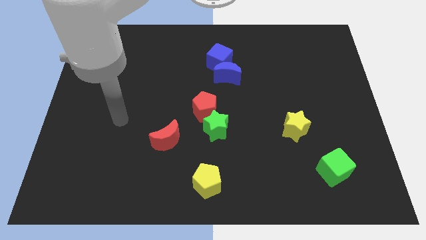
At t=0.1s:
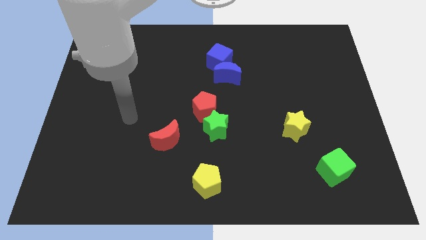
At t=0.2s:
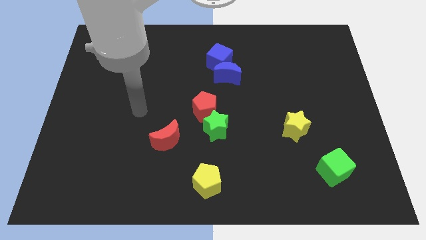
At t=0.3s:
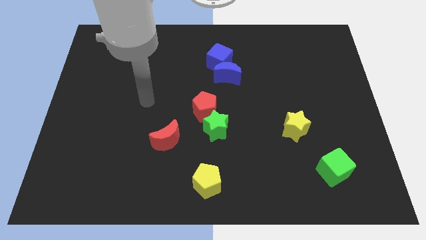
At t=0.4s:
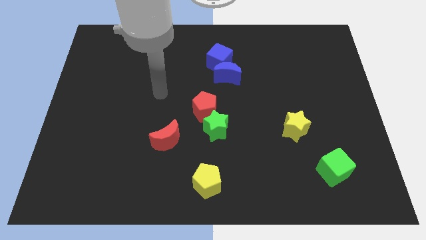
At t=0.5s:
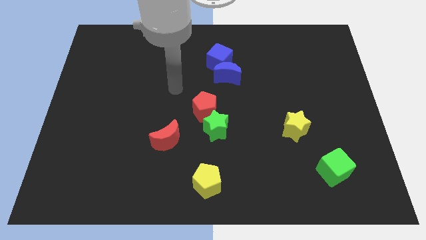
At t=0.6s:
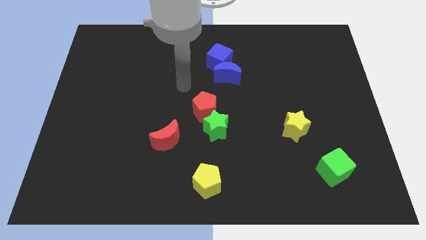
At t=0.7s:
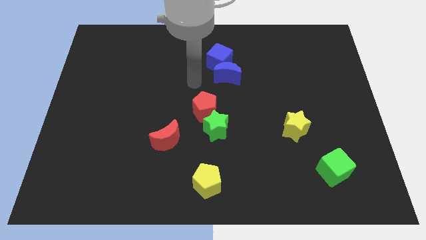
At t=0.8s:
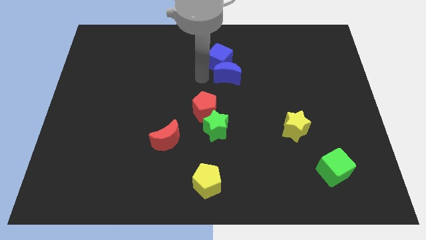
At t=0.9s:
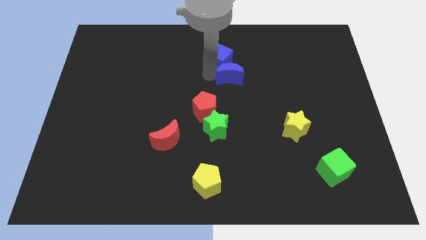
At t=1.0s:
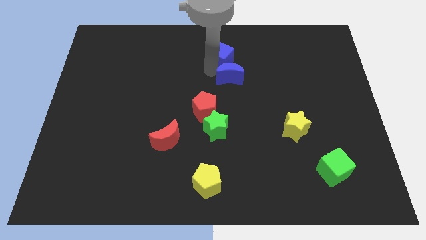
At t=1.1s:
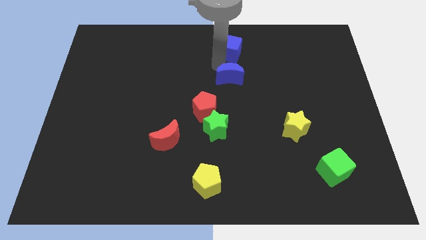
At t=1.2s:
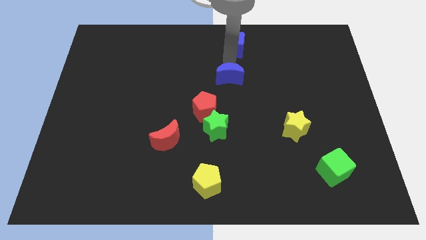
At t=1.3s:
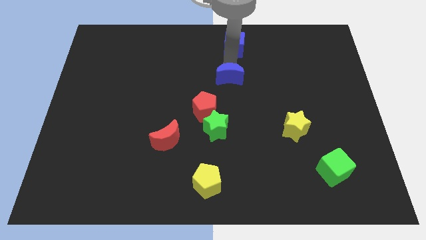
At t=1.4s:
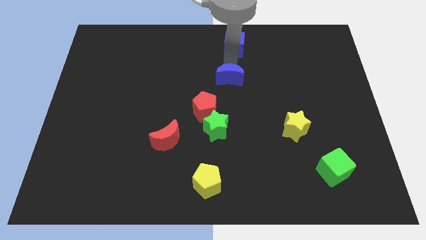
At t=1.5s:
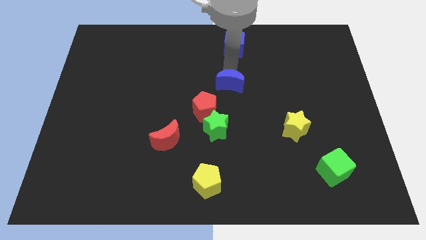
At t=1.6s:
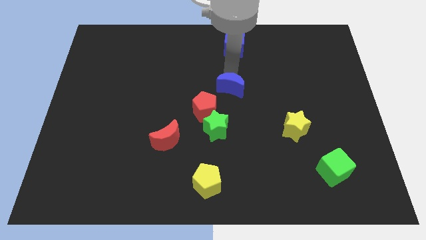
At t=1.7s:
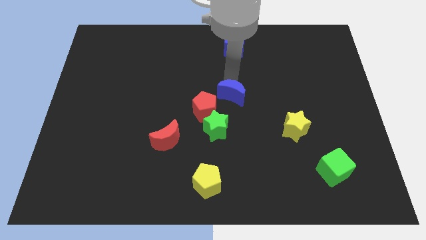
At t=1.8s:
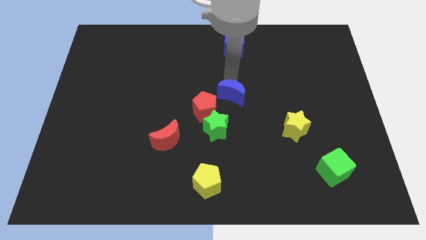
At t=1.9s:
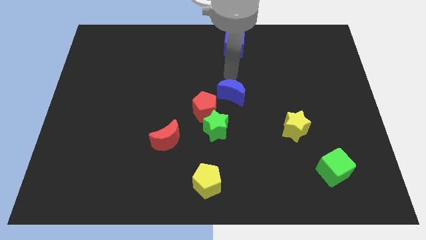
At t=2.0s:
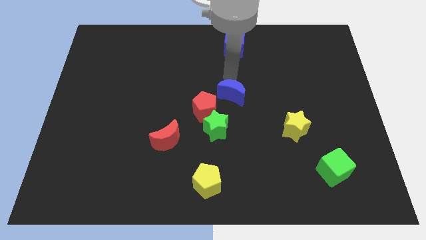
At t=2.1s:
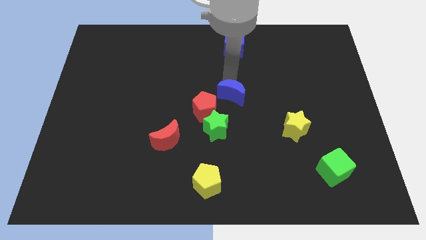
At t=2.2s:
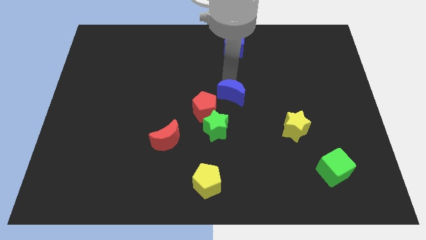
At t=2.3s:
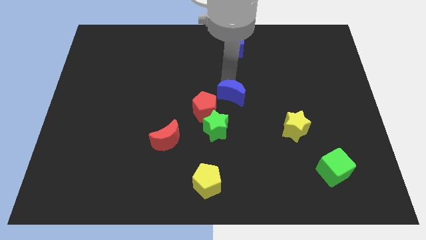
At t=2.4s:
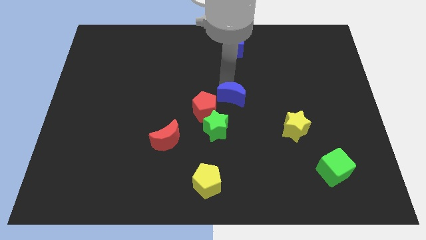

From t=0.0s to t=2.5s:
slightly push the blue moon downwards

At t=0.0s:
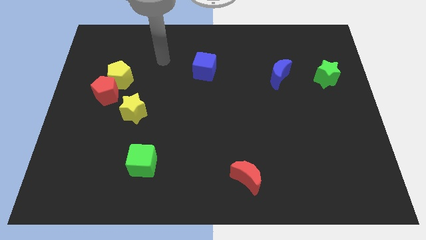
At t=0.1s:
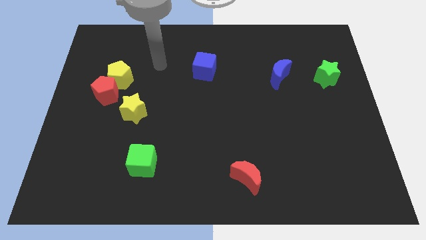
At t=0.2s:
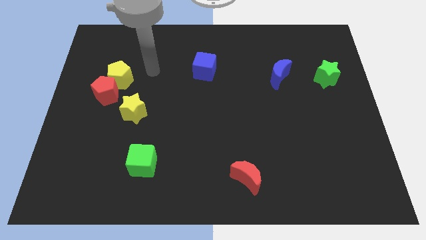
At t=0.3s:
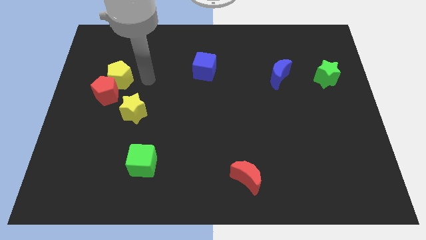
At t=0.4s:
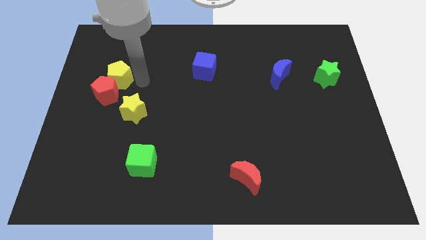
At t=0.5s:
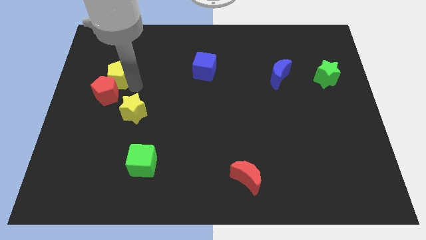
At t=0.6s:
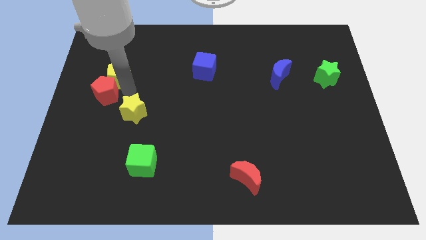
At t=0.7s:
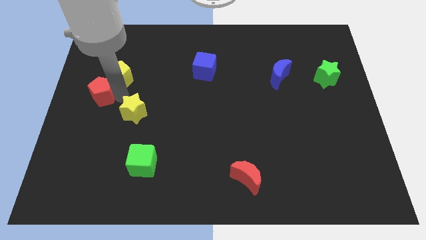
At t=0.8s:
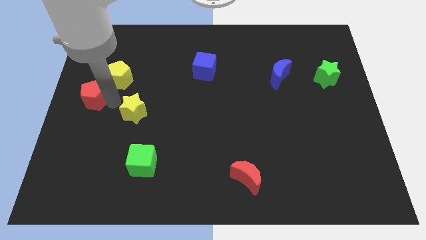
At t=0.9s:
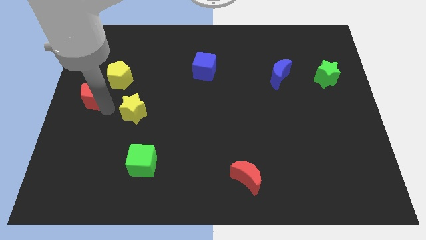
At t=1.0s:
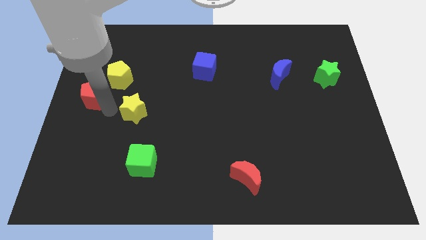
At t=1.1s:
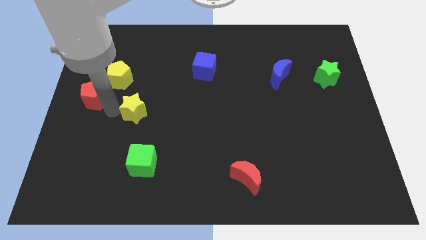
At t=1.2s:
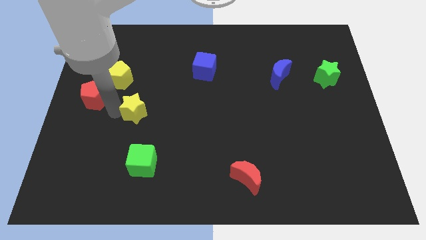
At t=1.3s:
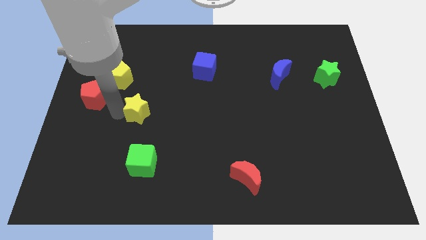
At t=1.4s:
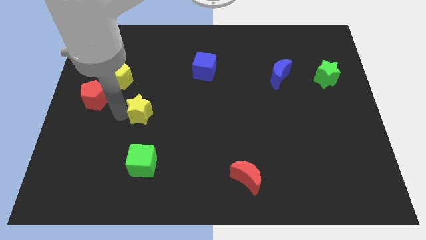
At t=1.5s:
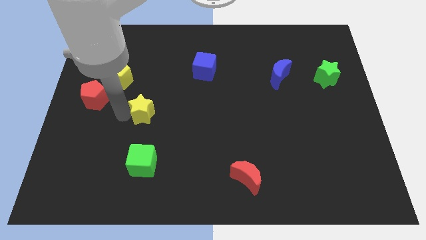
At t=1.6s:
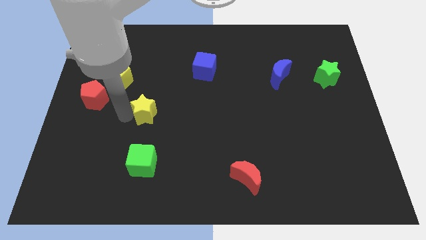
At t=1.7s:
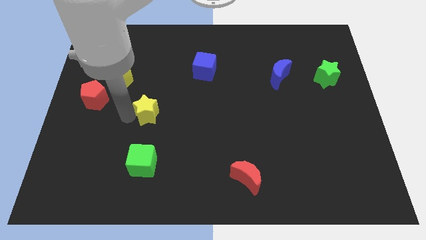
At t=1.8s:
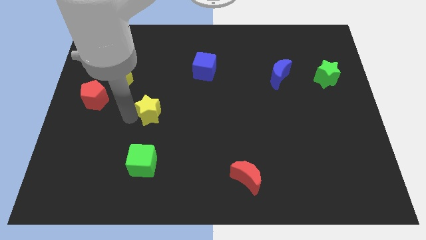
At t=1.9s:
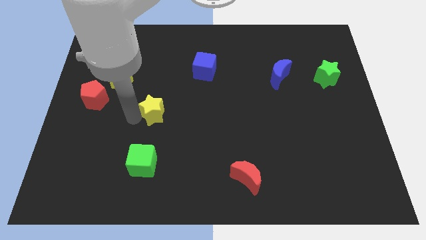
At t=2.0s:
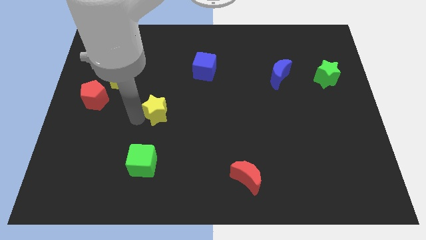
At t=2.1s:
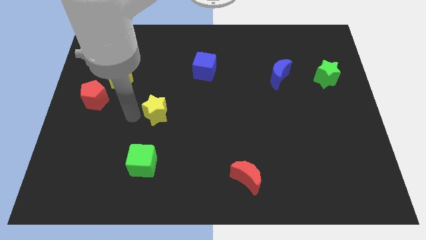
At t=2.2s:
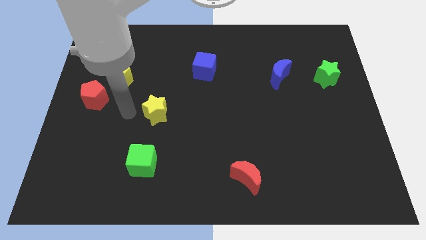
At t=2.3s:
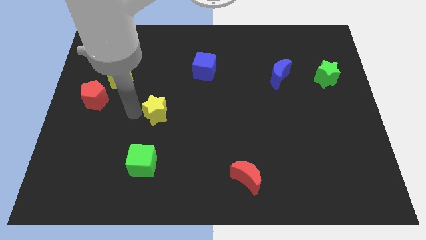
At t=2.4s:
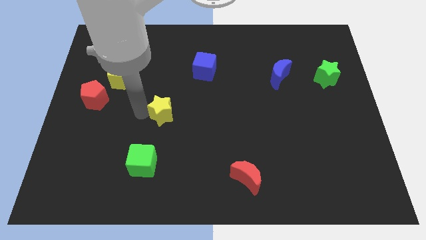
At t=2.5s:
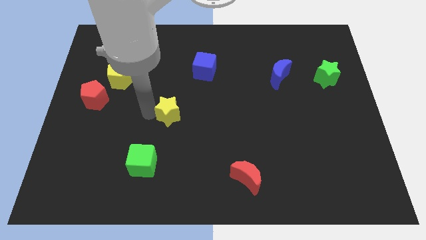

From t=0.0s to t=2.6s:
push the yellow star to the right a little bit

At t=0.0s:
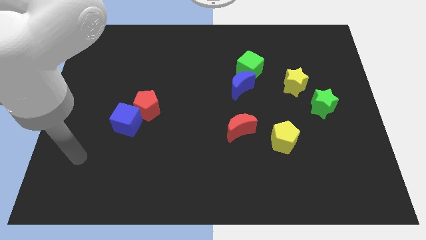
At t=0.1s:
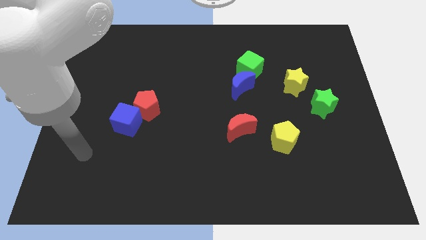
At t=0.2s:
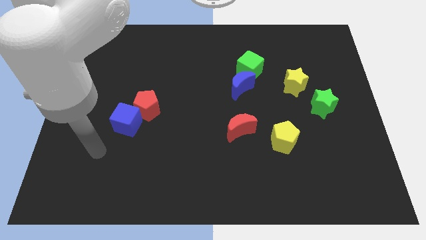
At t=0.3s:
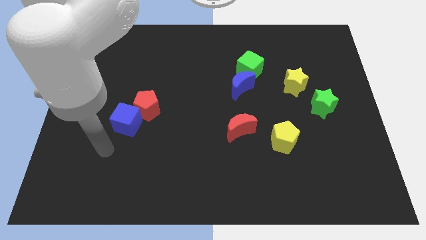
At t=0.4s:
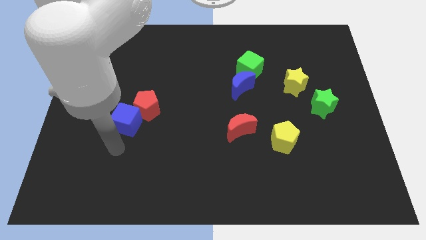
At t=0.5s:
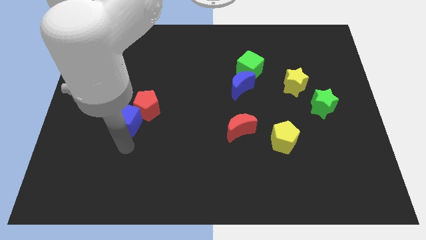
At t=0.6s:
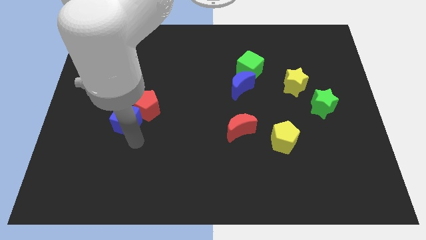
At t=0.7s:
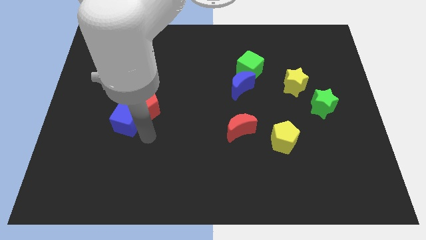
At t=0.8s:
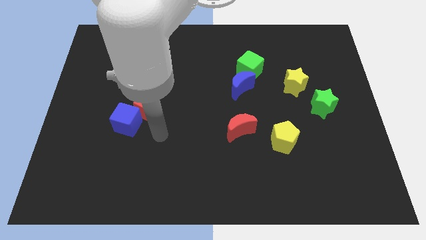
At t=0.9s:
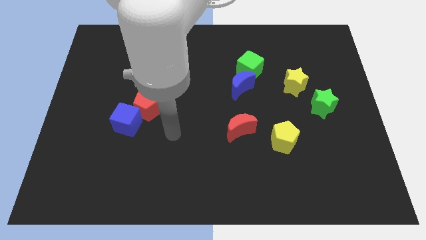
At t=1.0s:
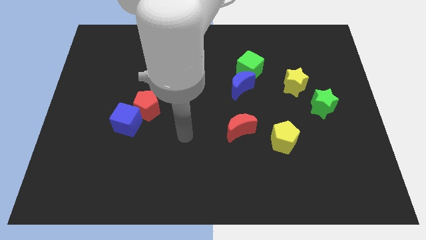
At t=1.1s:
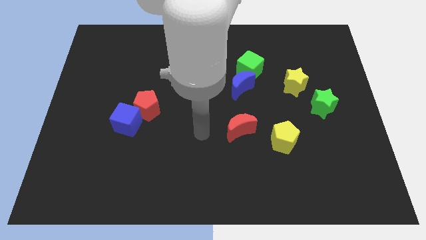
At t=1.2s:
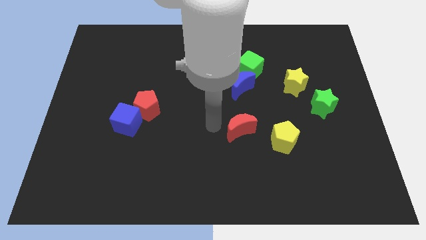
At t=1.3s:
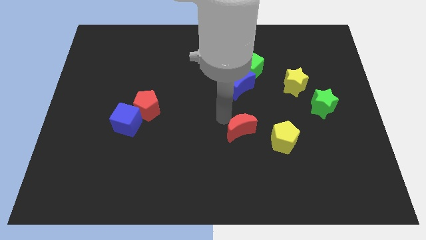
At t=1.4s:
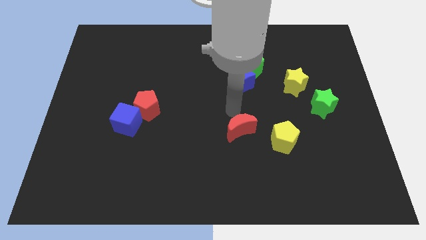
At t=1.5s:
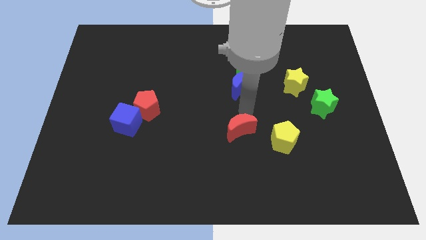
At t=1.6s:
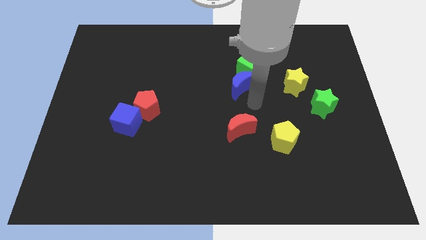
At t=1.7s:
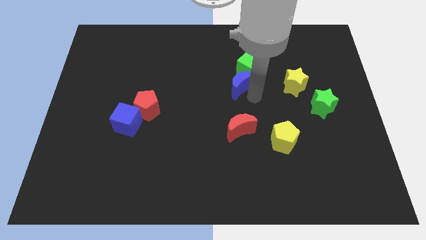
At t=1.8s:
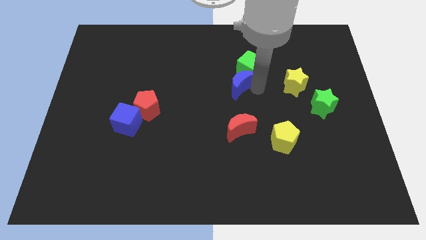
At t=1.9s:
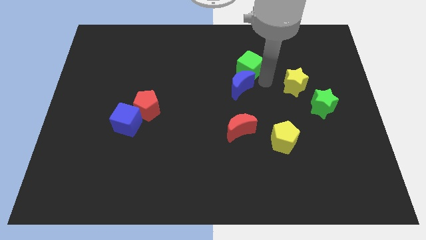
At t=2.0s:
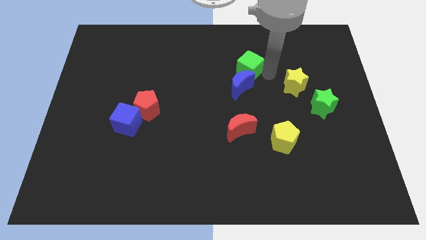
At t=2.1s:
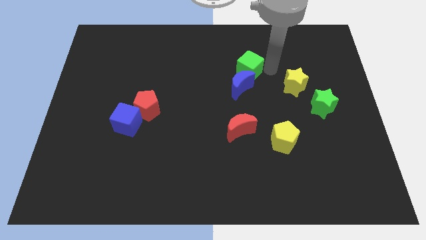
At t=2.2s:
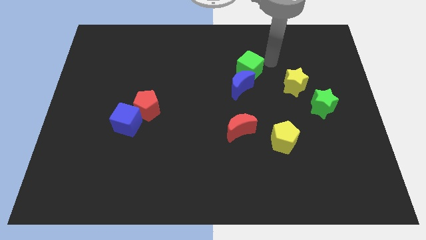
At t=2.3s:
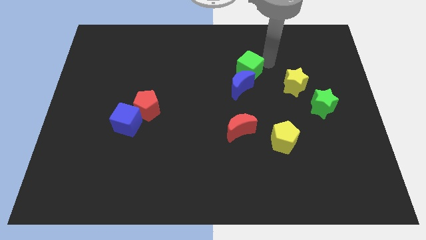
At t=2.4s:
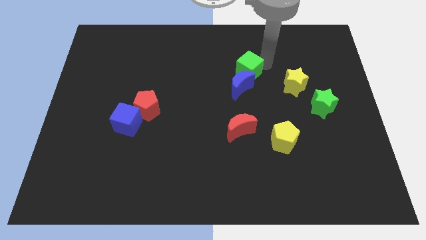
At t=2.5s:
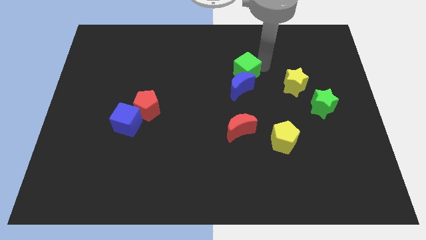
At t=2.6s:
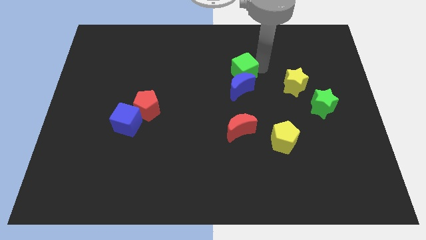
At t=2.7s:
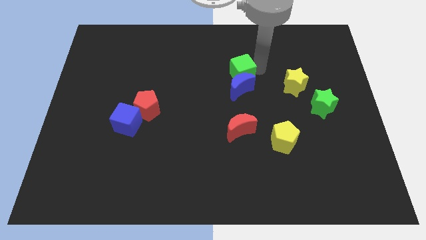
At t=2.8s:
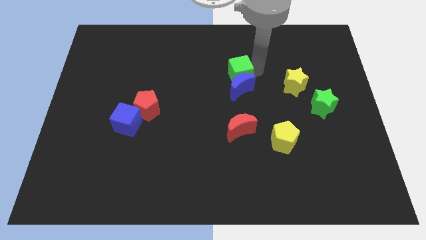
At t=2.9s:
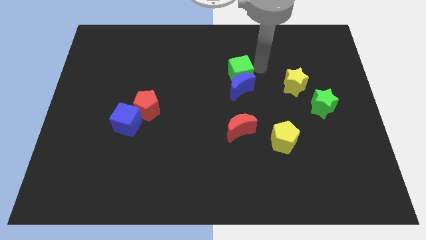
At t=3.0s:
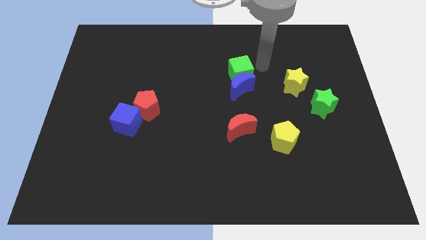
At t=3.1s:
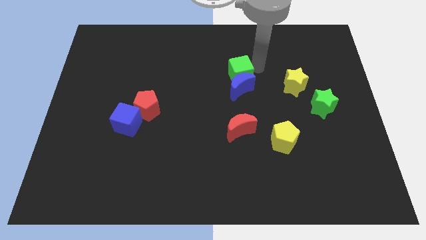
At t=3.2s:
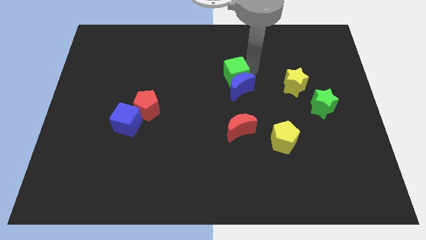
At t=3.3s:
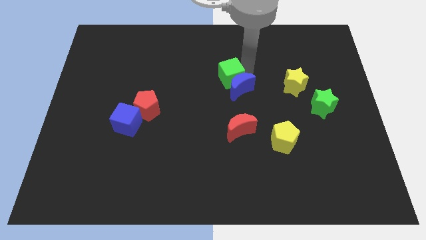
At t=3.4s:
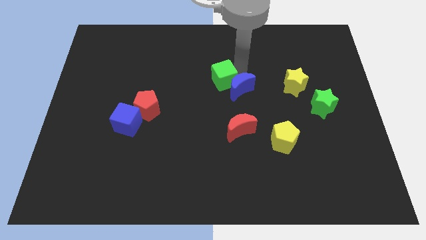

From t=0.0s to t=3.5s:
slightly move the green cube downwards and left
